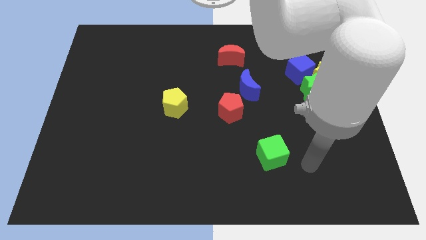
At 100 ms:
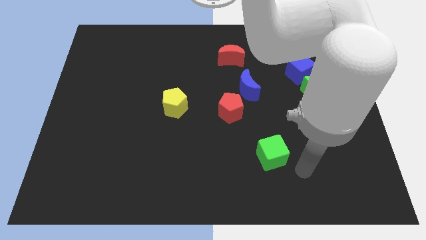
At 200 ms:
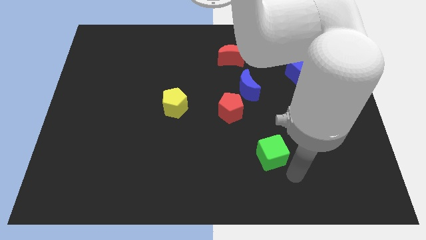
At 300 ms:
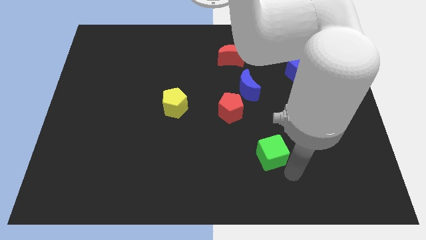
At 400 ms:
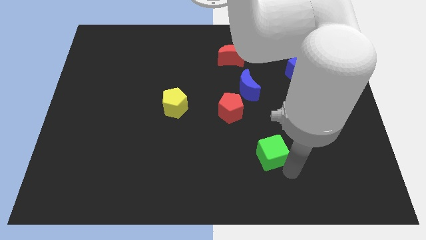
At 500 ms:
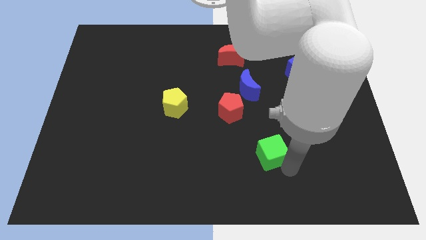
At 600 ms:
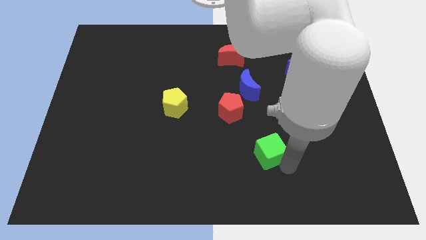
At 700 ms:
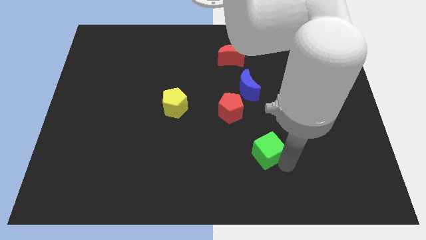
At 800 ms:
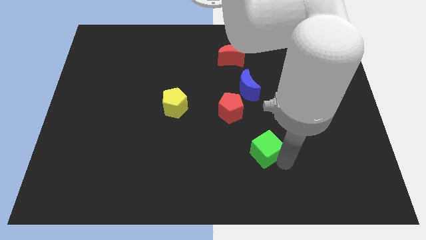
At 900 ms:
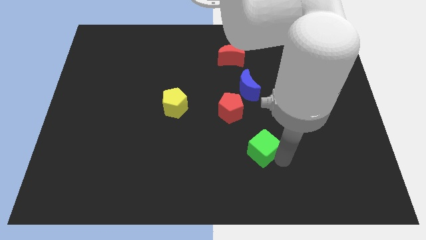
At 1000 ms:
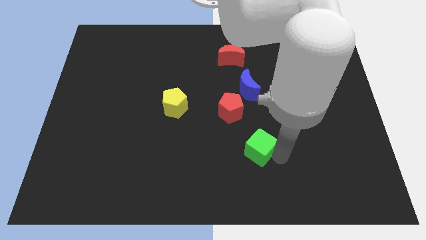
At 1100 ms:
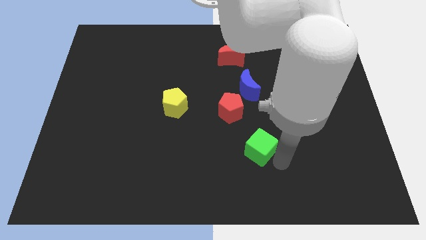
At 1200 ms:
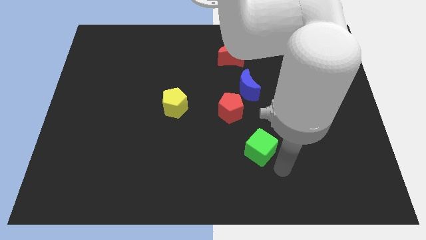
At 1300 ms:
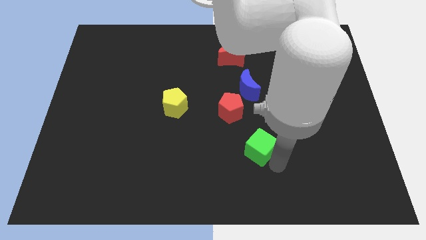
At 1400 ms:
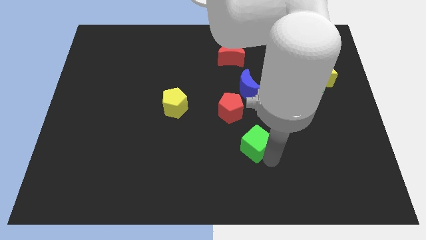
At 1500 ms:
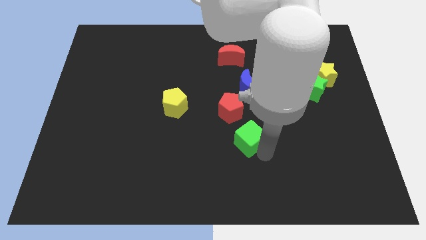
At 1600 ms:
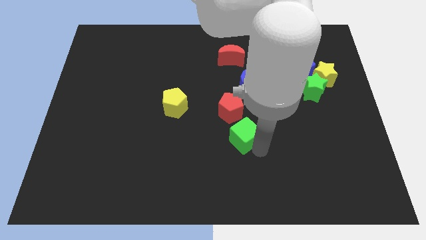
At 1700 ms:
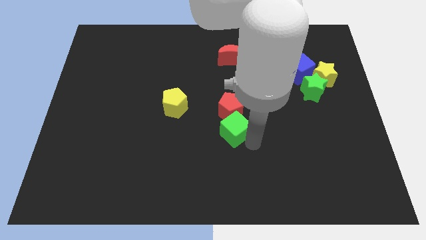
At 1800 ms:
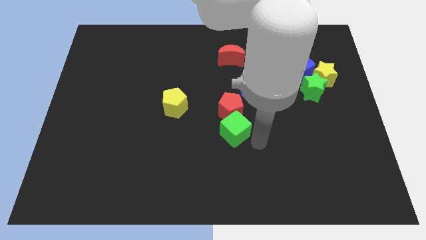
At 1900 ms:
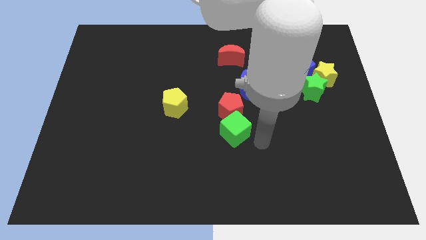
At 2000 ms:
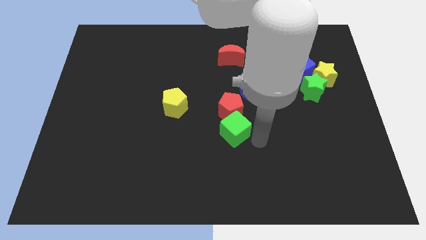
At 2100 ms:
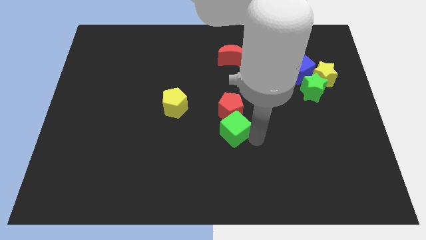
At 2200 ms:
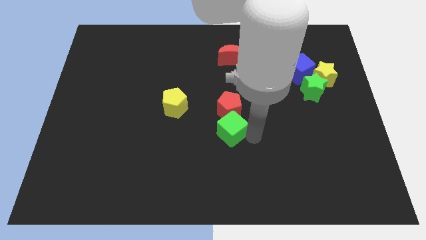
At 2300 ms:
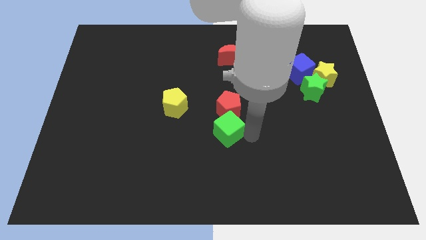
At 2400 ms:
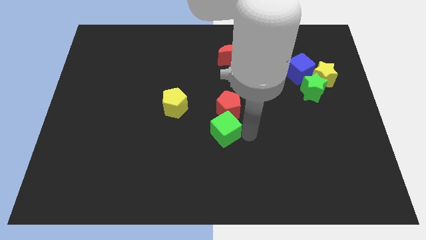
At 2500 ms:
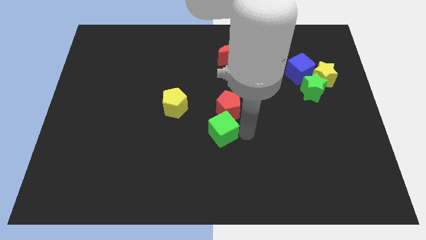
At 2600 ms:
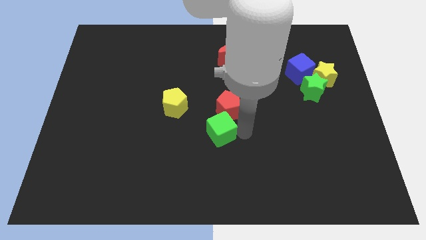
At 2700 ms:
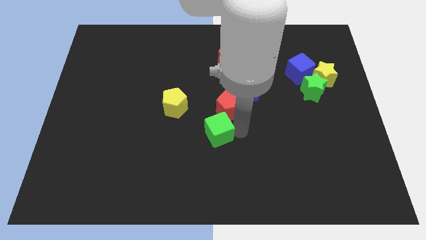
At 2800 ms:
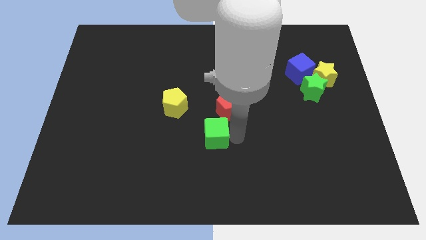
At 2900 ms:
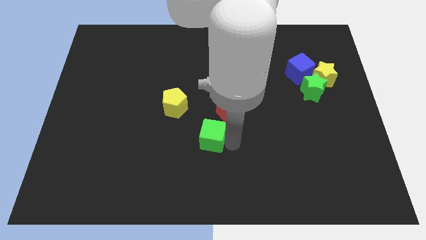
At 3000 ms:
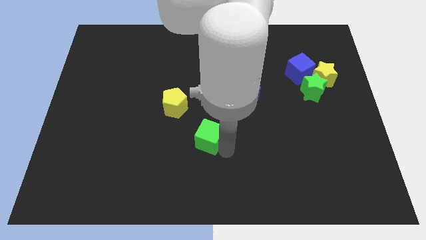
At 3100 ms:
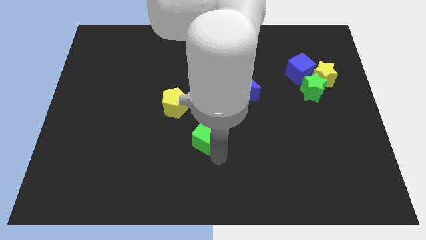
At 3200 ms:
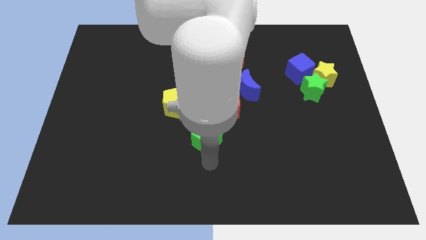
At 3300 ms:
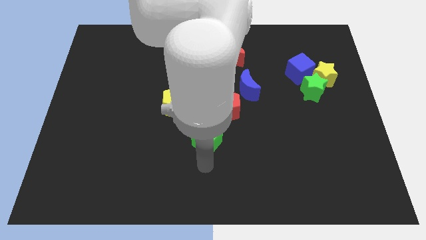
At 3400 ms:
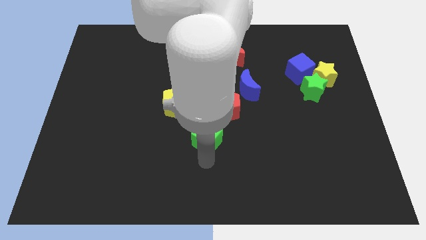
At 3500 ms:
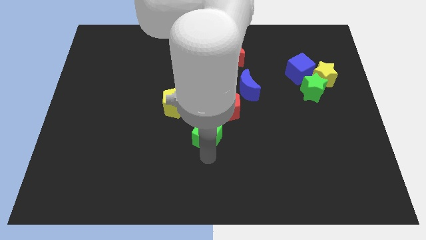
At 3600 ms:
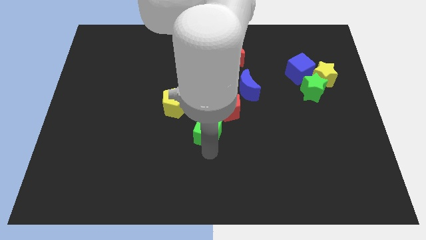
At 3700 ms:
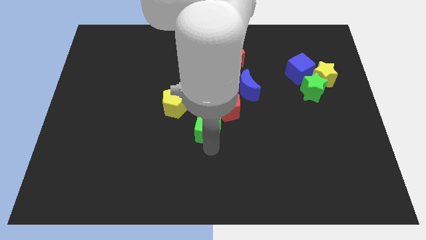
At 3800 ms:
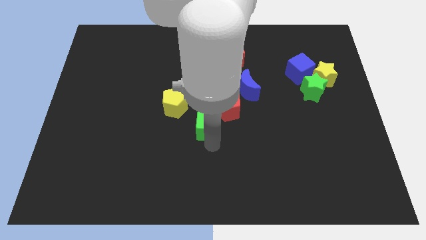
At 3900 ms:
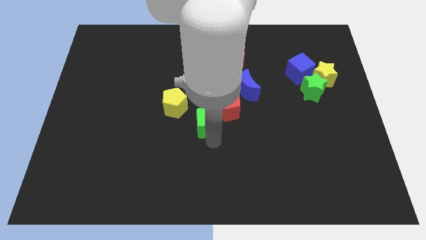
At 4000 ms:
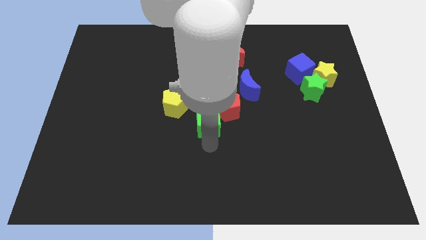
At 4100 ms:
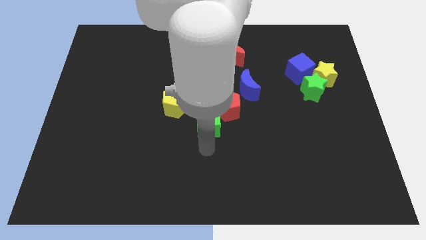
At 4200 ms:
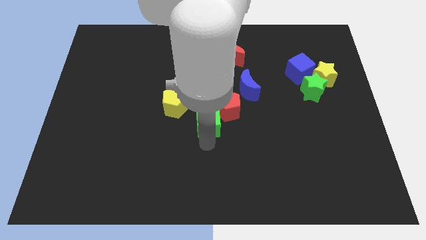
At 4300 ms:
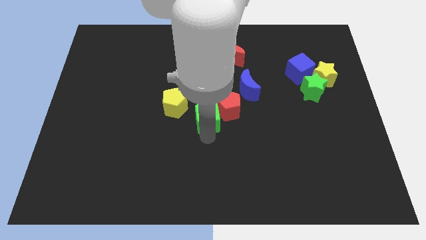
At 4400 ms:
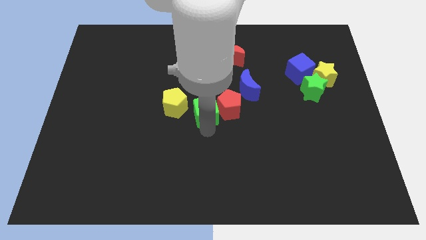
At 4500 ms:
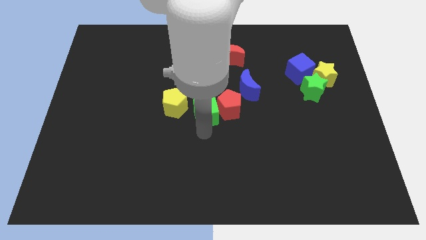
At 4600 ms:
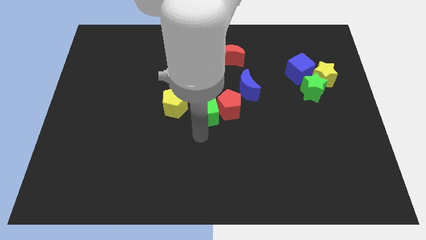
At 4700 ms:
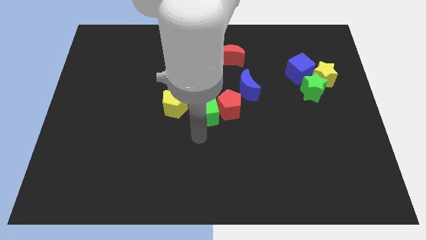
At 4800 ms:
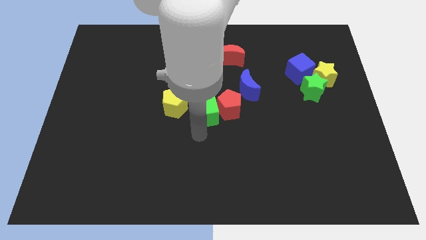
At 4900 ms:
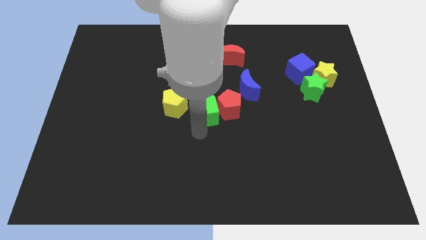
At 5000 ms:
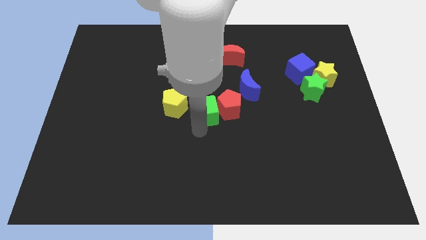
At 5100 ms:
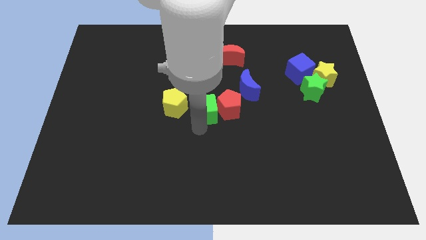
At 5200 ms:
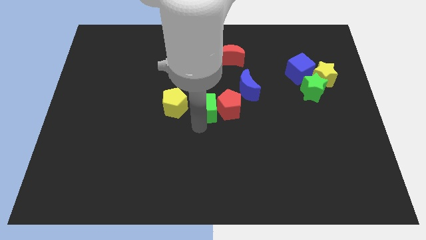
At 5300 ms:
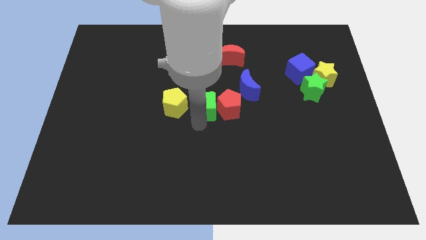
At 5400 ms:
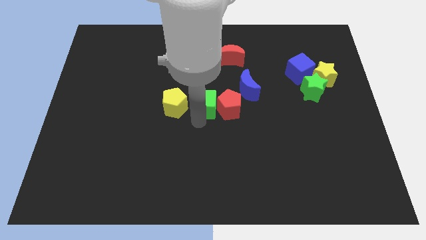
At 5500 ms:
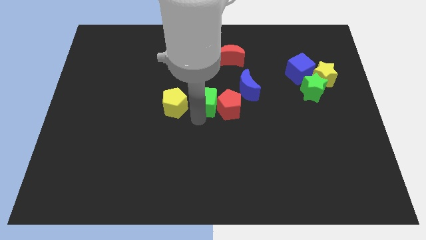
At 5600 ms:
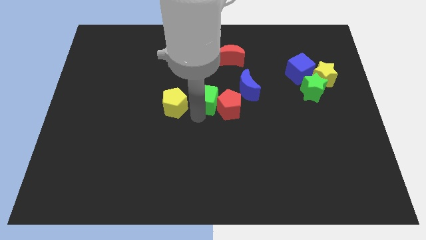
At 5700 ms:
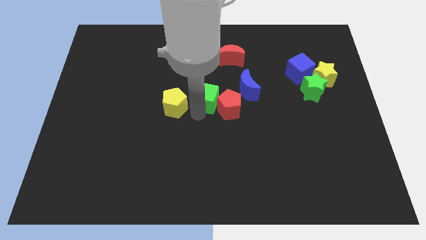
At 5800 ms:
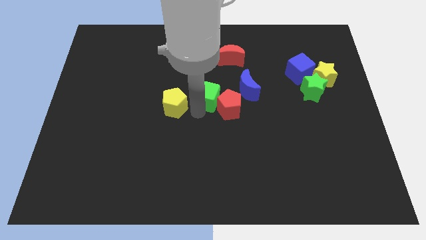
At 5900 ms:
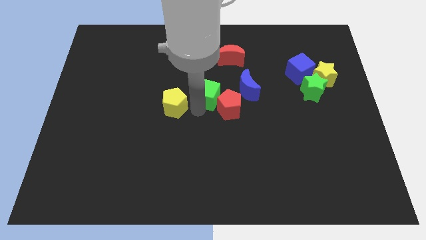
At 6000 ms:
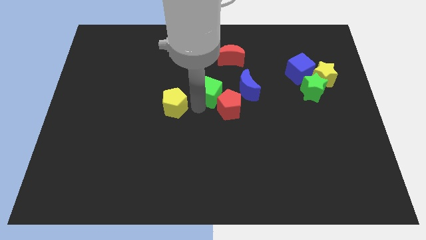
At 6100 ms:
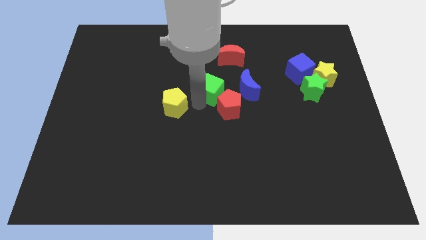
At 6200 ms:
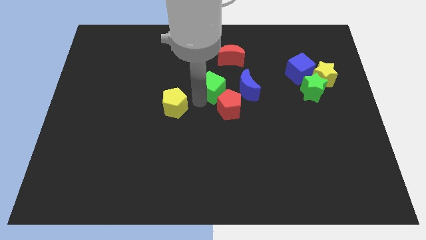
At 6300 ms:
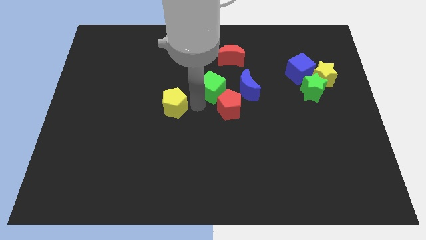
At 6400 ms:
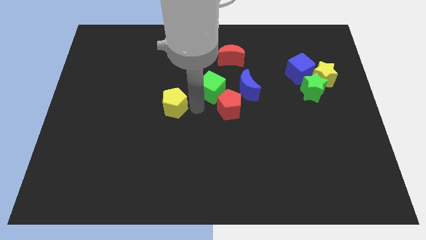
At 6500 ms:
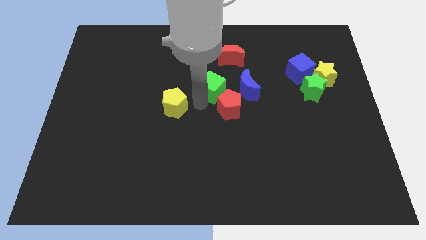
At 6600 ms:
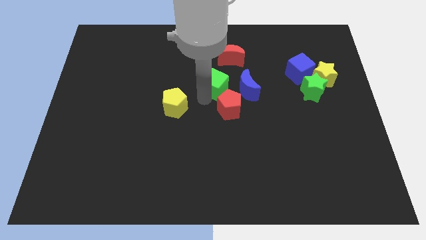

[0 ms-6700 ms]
put the green cube diagonally up and to the left of the blue moon
